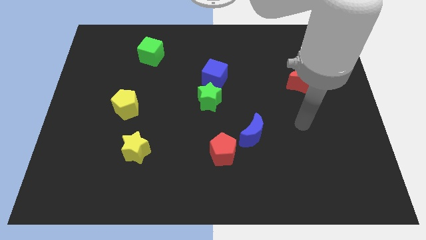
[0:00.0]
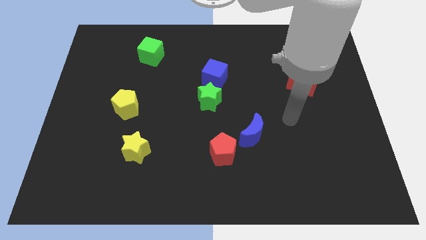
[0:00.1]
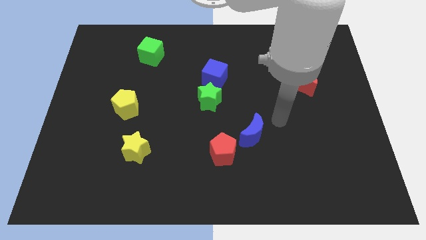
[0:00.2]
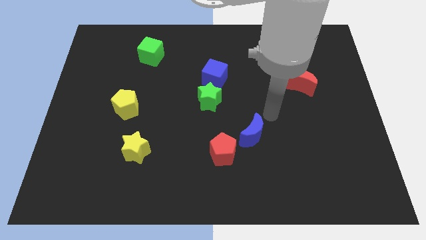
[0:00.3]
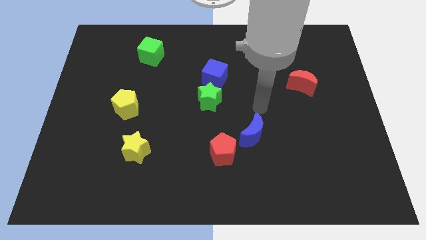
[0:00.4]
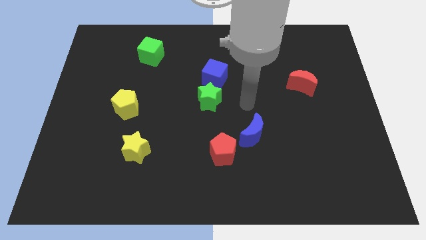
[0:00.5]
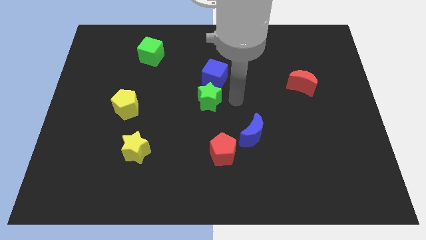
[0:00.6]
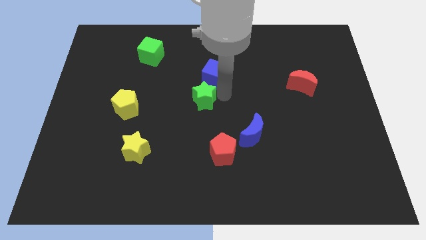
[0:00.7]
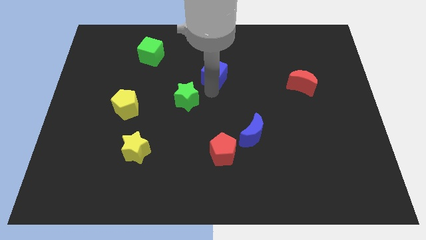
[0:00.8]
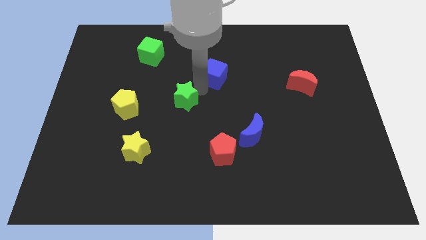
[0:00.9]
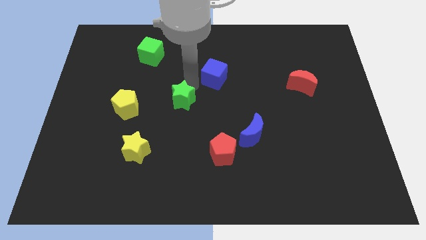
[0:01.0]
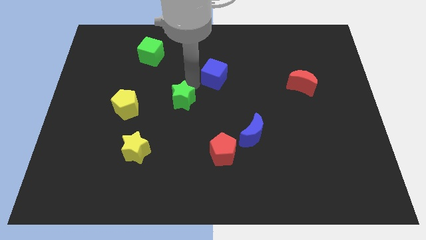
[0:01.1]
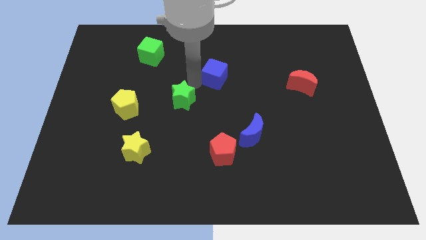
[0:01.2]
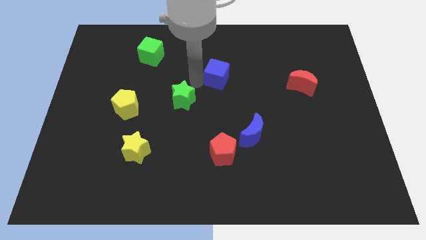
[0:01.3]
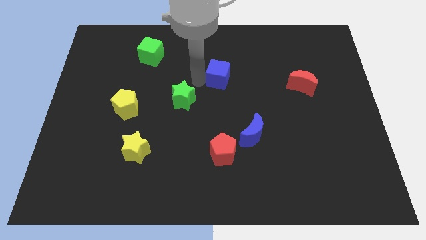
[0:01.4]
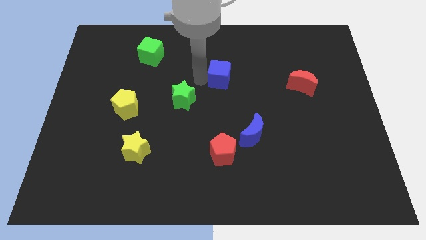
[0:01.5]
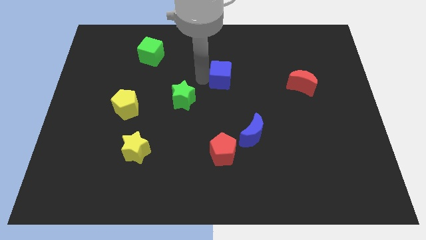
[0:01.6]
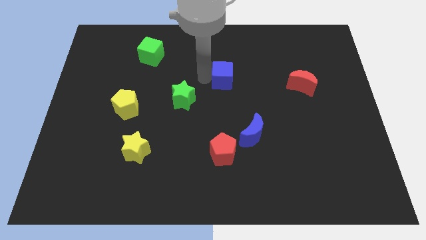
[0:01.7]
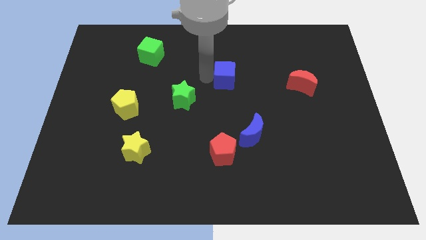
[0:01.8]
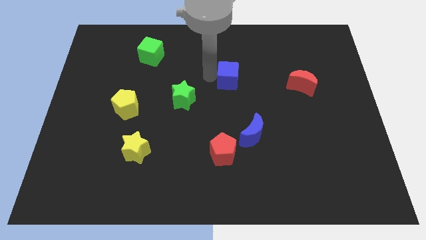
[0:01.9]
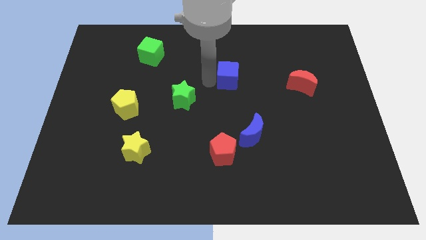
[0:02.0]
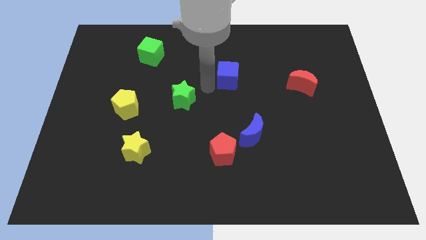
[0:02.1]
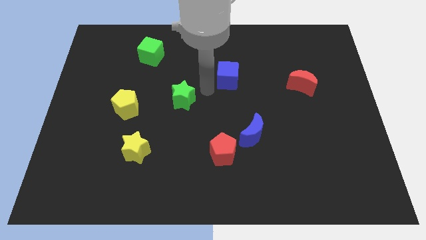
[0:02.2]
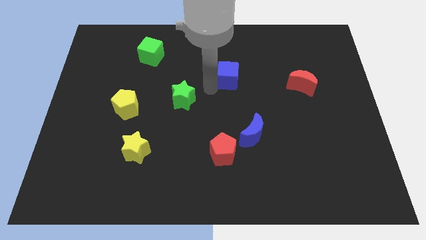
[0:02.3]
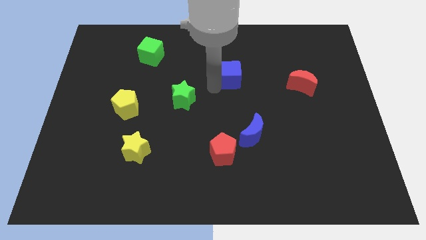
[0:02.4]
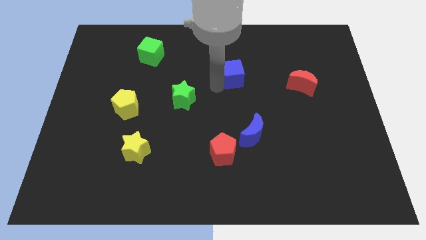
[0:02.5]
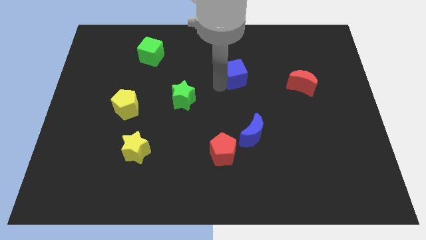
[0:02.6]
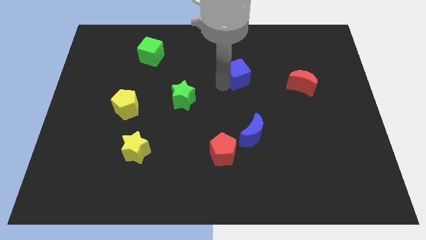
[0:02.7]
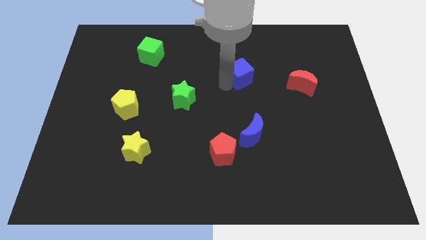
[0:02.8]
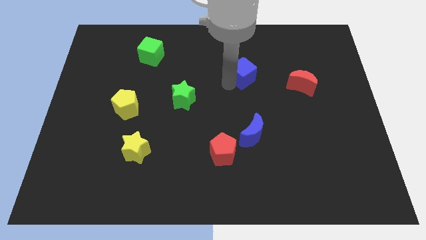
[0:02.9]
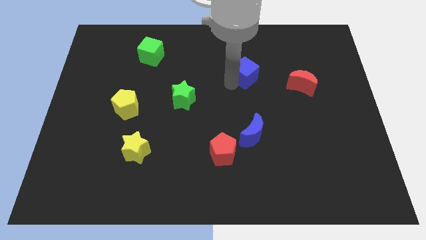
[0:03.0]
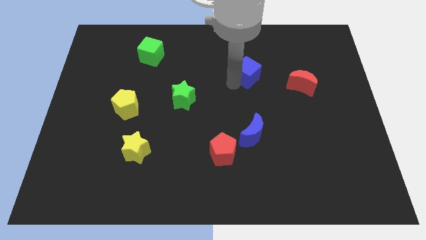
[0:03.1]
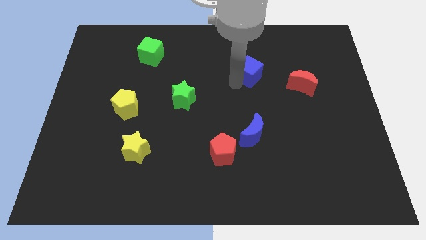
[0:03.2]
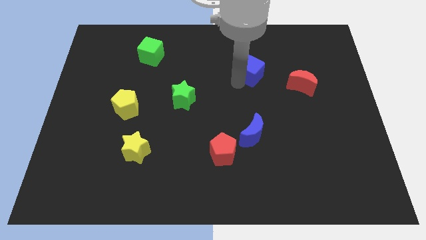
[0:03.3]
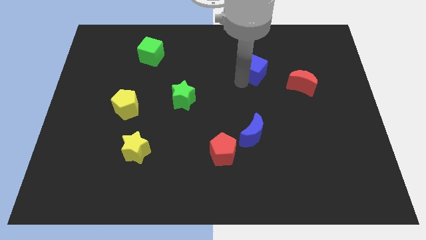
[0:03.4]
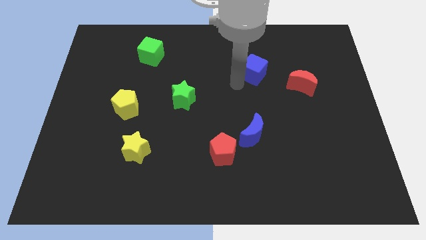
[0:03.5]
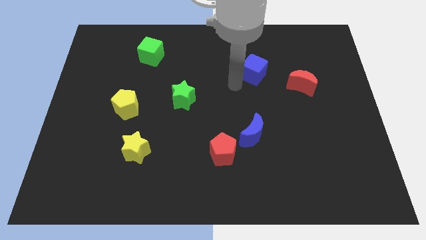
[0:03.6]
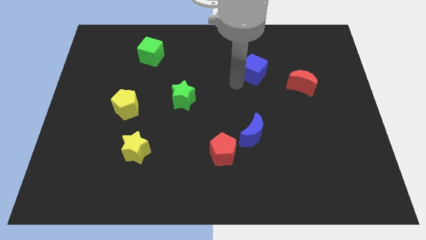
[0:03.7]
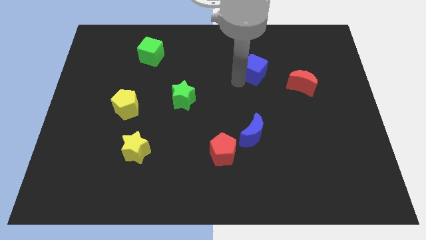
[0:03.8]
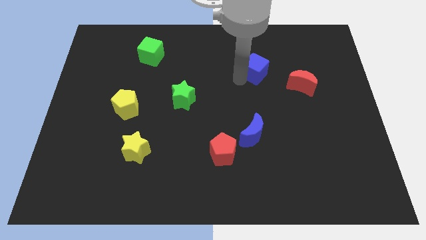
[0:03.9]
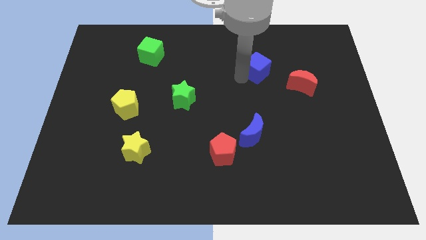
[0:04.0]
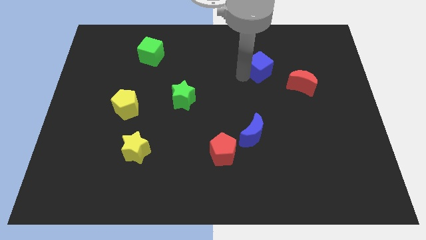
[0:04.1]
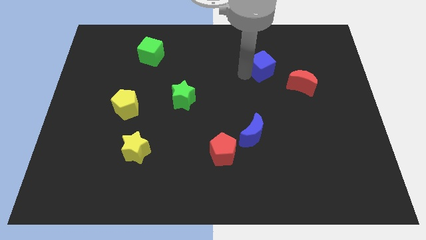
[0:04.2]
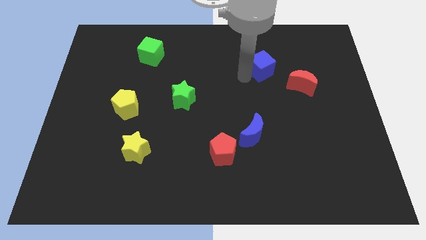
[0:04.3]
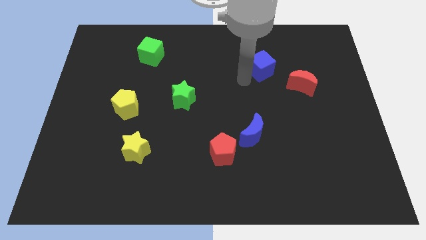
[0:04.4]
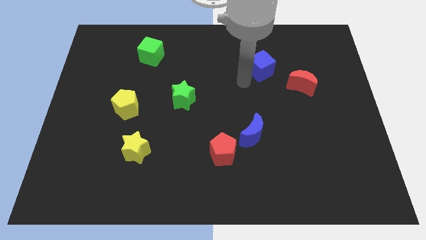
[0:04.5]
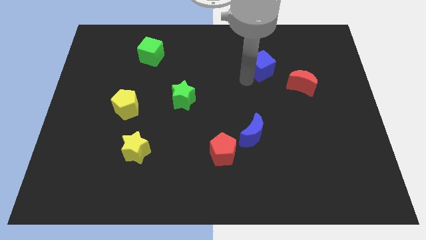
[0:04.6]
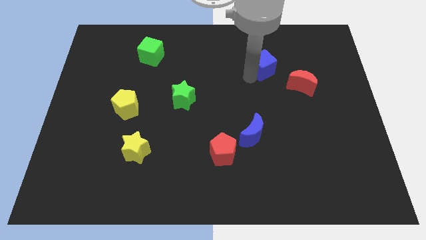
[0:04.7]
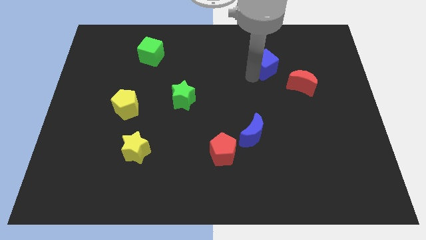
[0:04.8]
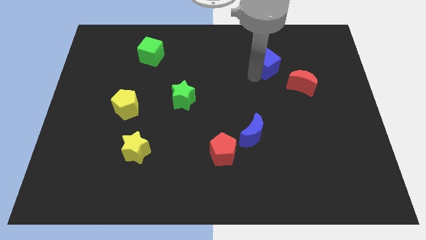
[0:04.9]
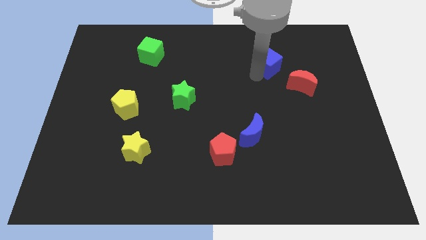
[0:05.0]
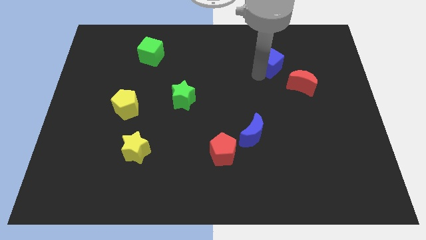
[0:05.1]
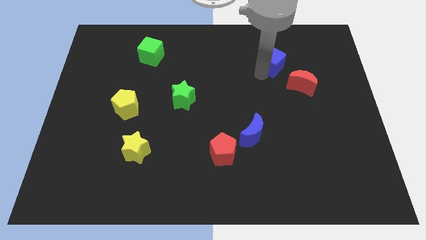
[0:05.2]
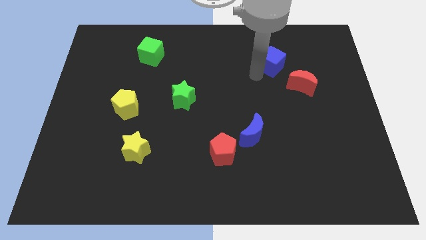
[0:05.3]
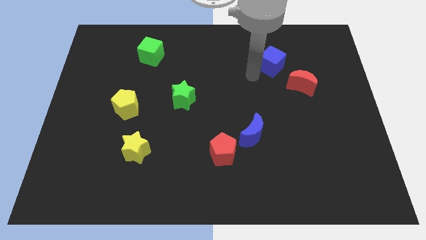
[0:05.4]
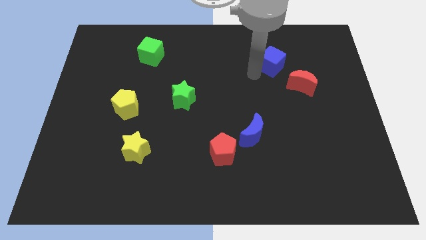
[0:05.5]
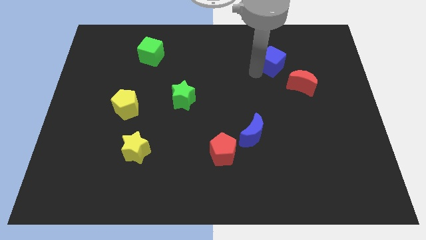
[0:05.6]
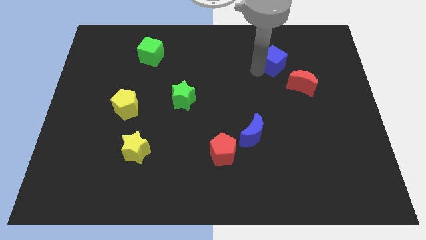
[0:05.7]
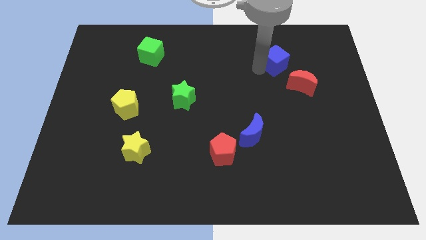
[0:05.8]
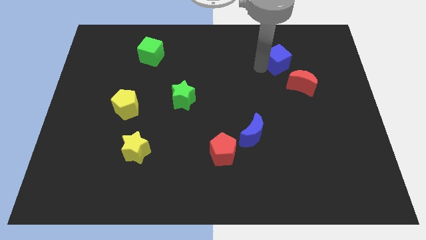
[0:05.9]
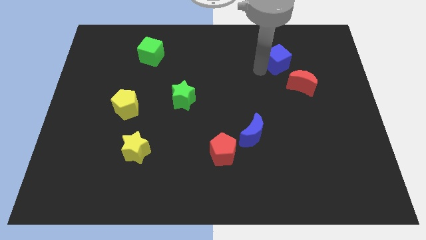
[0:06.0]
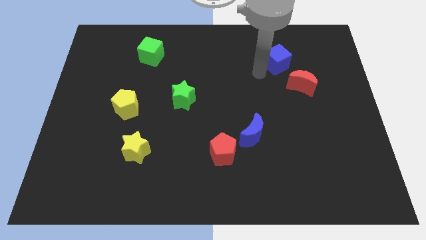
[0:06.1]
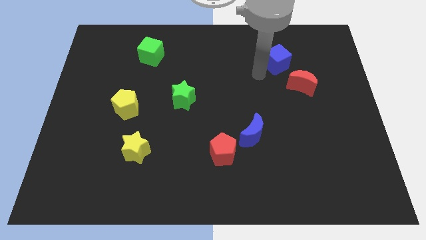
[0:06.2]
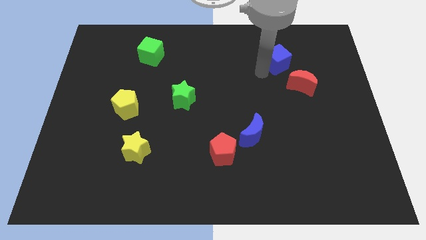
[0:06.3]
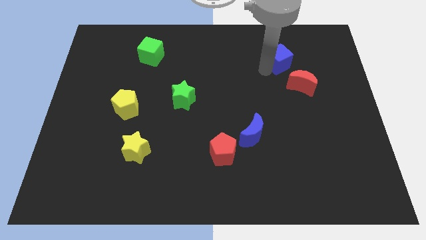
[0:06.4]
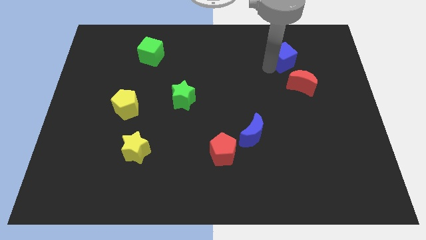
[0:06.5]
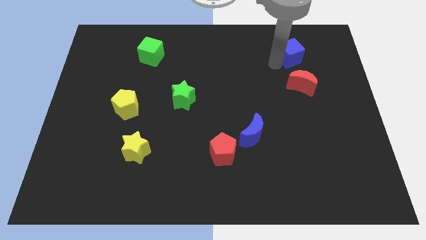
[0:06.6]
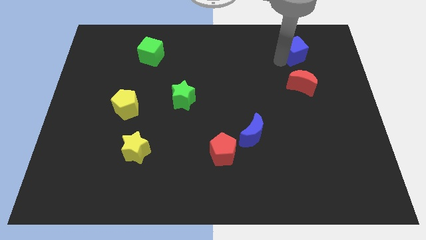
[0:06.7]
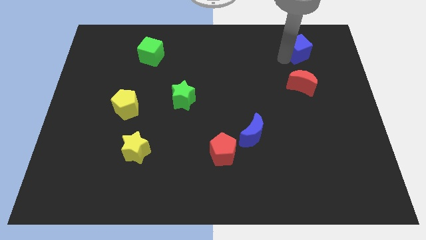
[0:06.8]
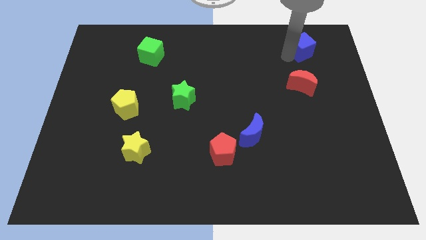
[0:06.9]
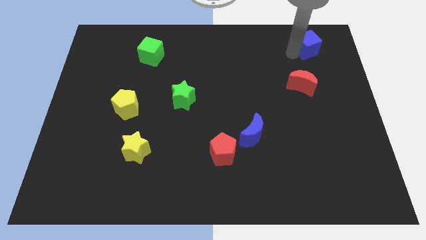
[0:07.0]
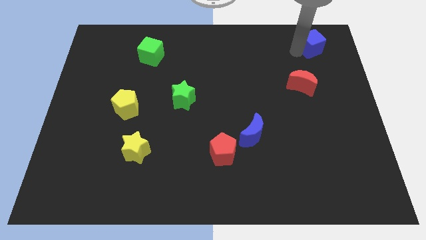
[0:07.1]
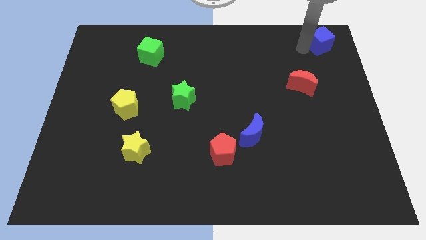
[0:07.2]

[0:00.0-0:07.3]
move the blue cube to the upper right corner
